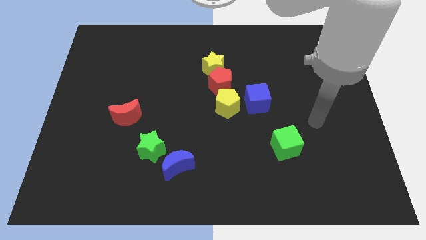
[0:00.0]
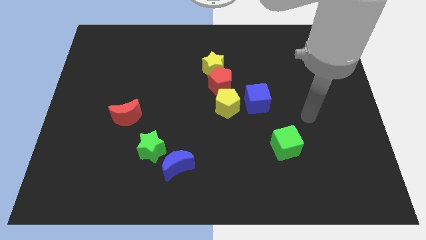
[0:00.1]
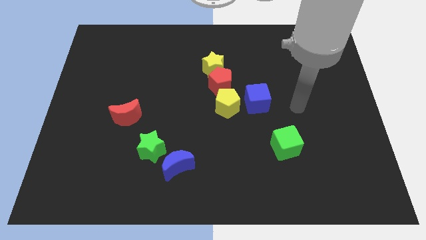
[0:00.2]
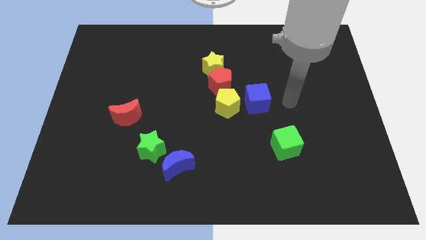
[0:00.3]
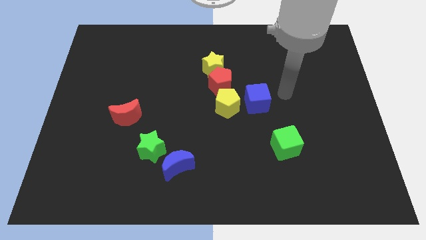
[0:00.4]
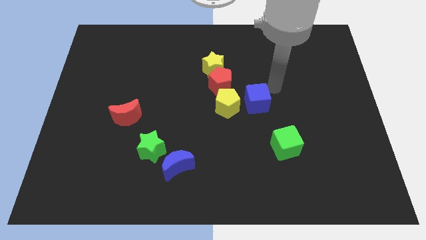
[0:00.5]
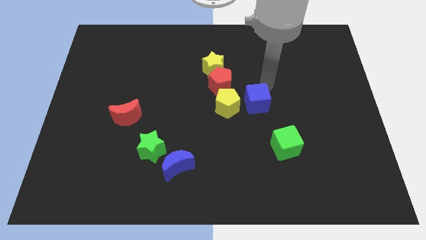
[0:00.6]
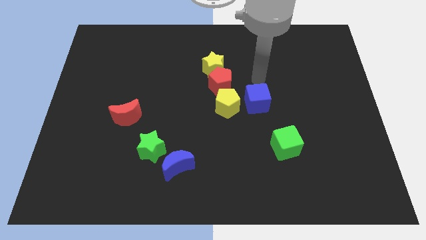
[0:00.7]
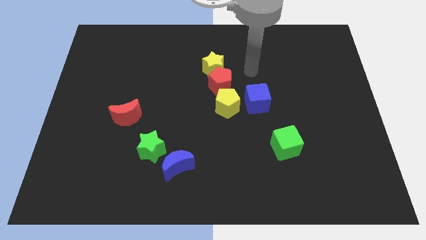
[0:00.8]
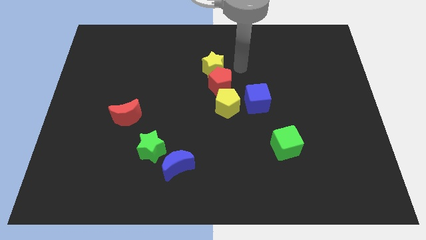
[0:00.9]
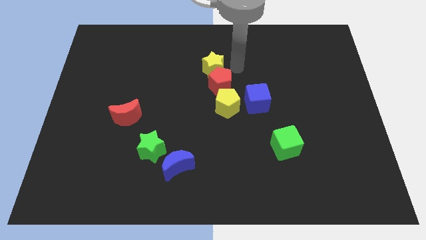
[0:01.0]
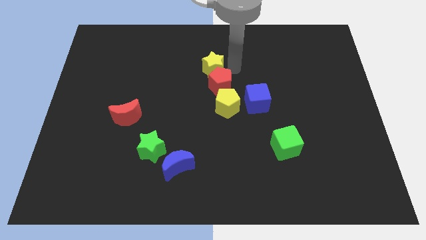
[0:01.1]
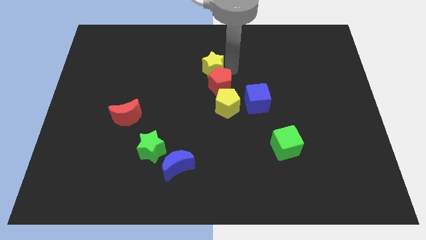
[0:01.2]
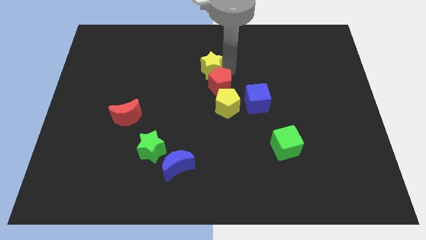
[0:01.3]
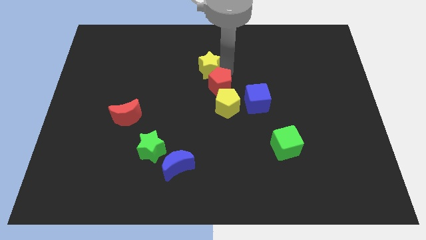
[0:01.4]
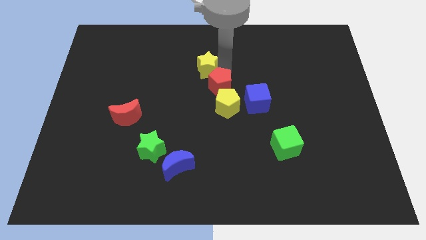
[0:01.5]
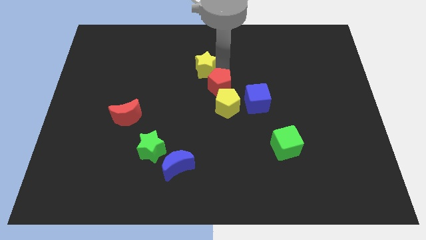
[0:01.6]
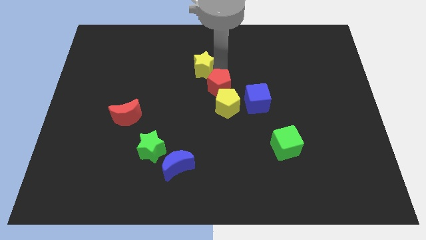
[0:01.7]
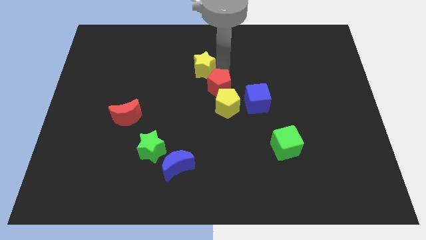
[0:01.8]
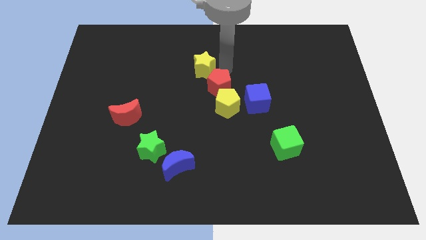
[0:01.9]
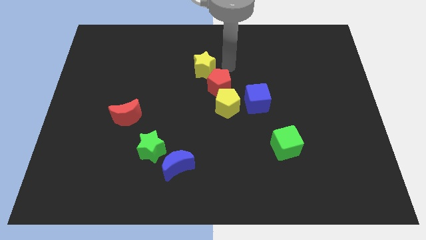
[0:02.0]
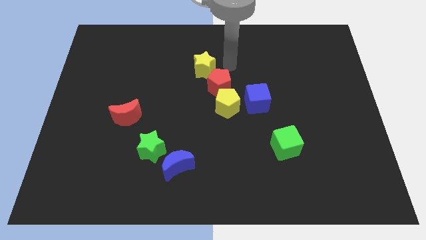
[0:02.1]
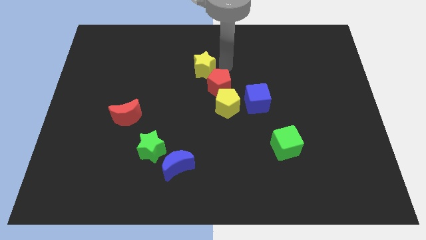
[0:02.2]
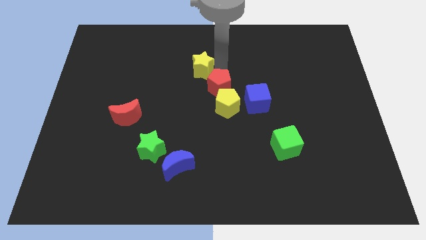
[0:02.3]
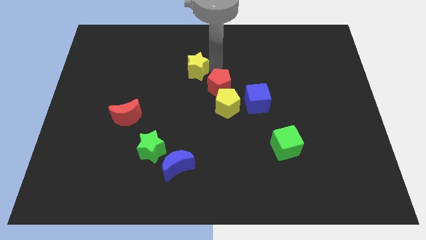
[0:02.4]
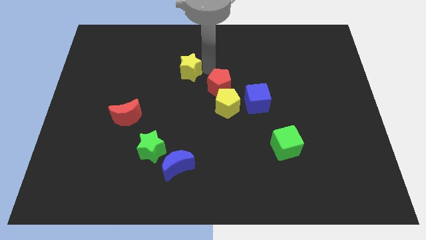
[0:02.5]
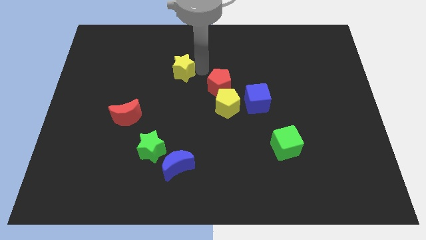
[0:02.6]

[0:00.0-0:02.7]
push the yellow star to the left somewhat

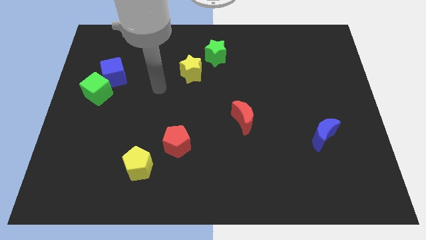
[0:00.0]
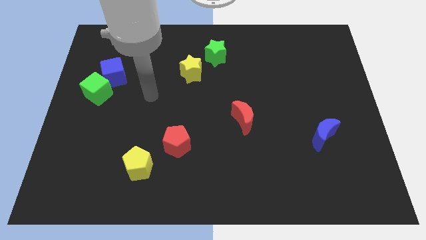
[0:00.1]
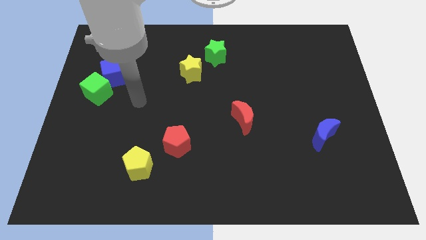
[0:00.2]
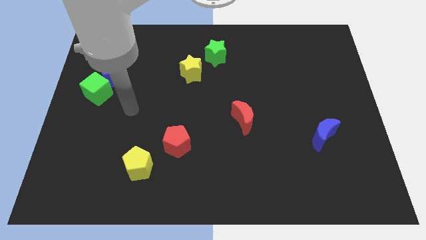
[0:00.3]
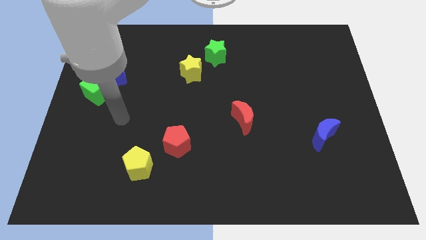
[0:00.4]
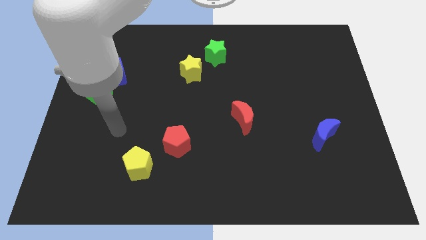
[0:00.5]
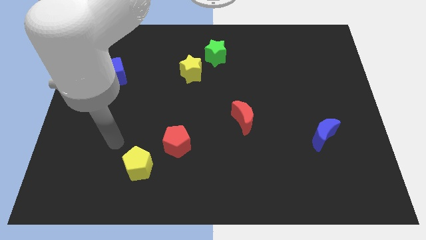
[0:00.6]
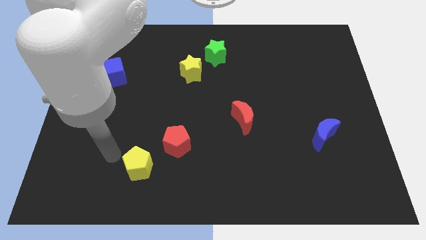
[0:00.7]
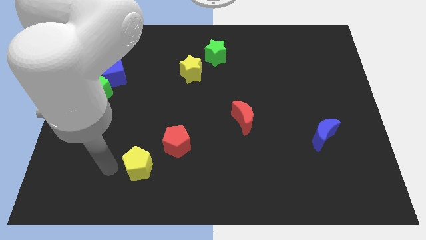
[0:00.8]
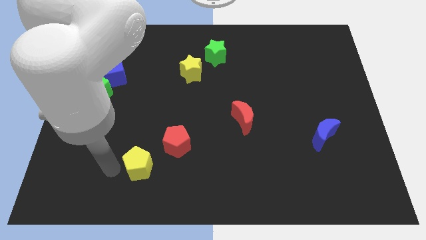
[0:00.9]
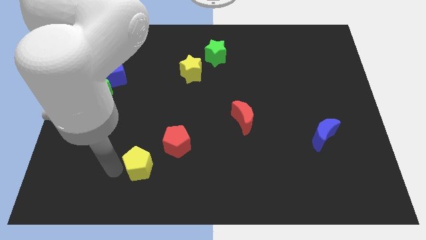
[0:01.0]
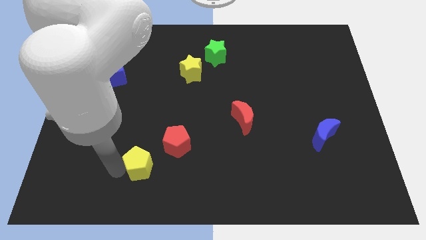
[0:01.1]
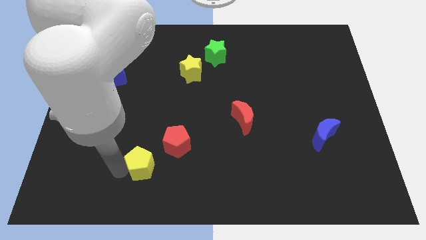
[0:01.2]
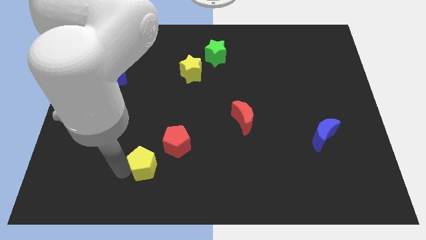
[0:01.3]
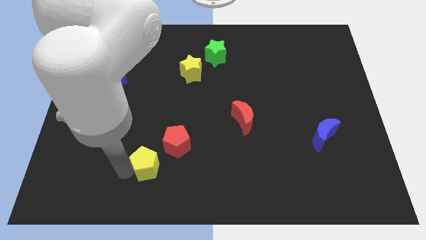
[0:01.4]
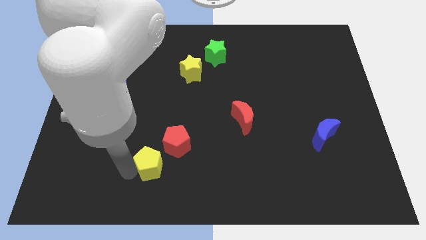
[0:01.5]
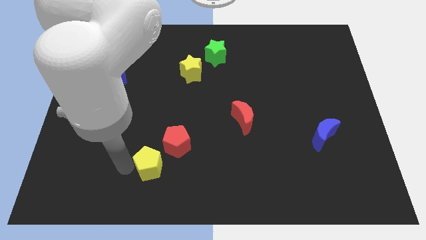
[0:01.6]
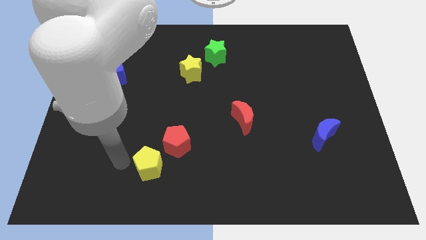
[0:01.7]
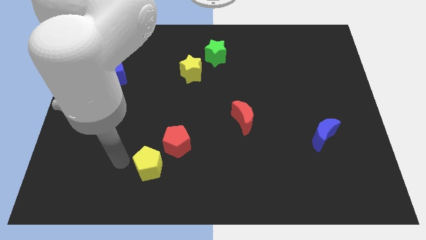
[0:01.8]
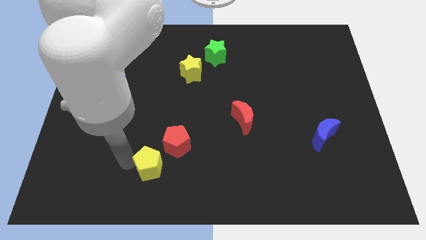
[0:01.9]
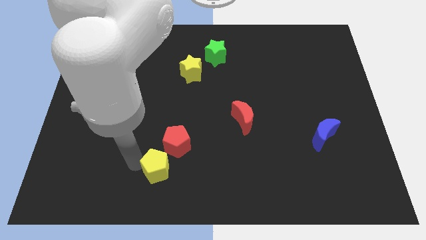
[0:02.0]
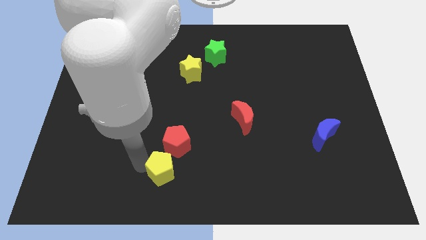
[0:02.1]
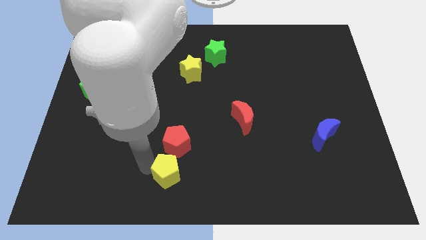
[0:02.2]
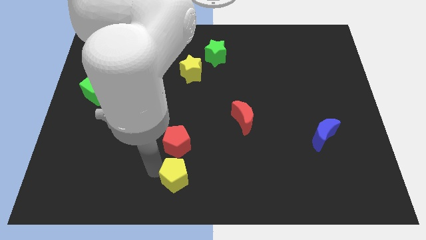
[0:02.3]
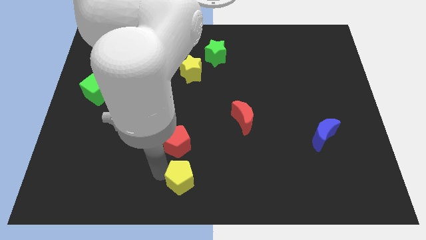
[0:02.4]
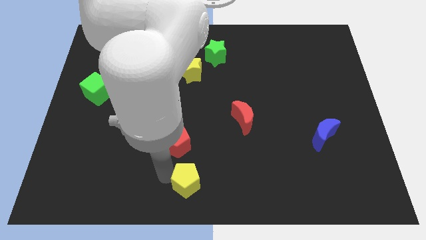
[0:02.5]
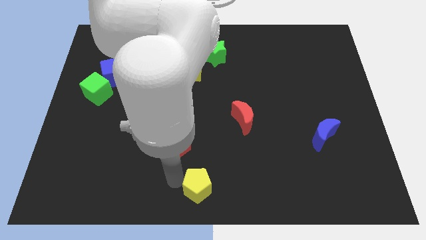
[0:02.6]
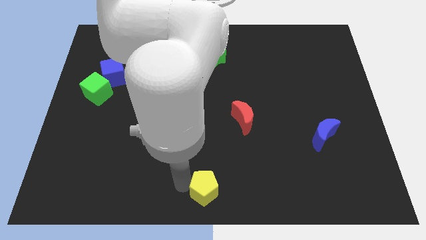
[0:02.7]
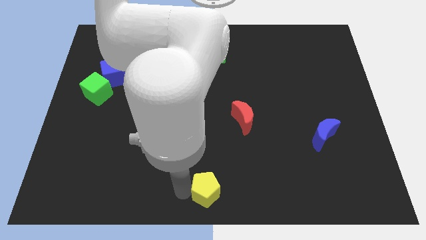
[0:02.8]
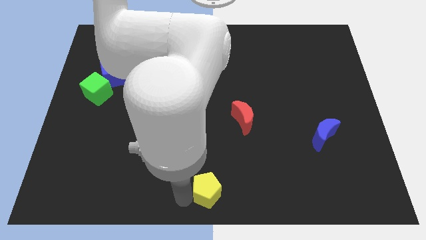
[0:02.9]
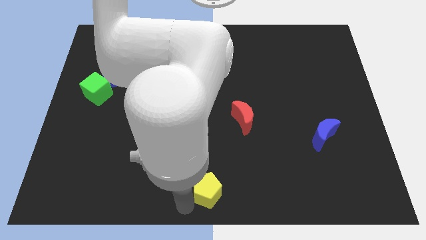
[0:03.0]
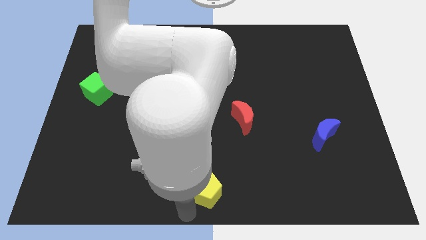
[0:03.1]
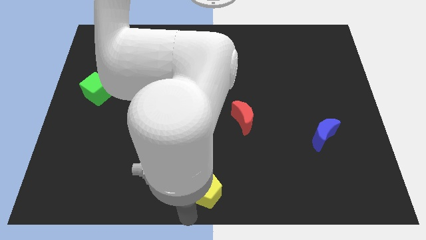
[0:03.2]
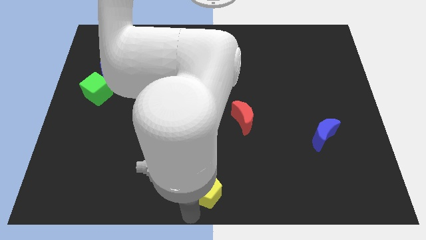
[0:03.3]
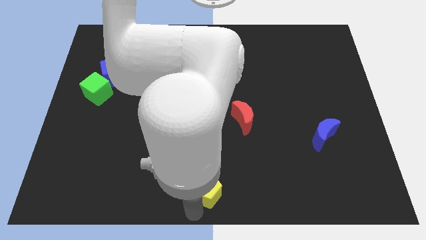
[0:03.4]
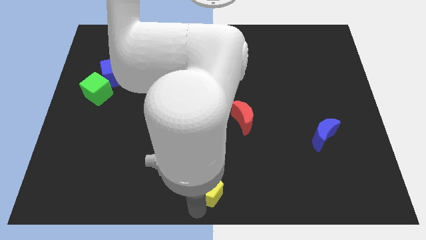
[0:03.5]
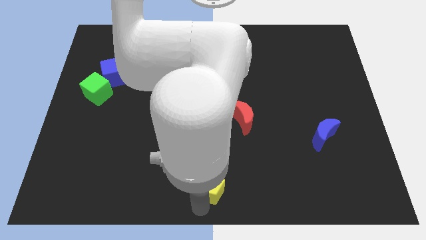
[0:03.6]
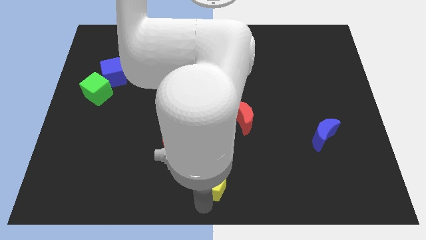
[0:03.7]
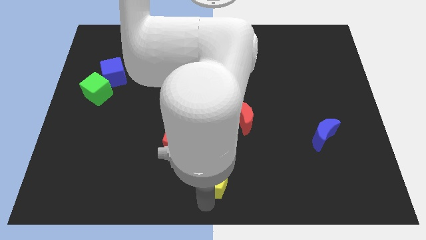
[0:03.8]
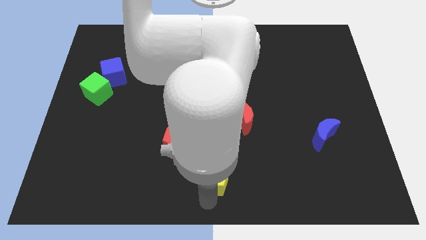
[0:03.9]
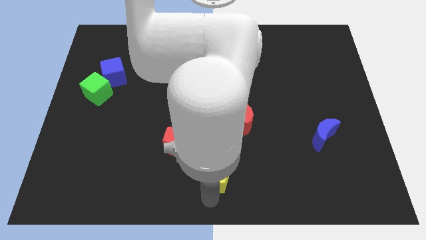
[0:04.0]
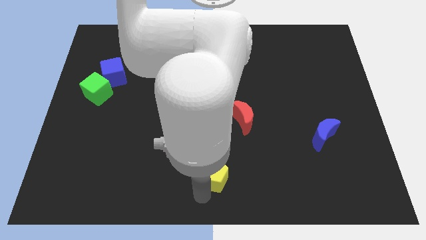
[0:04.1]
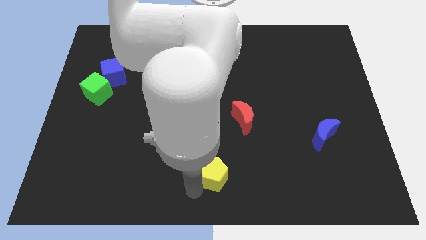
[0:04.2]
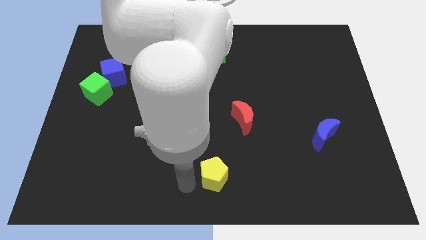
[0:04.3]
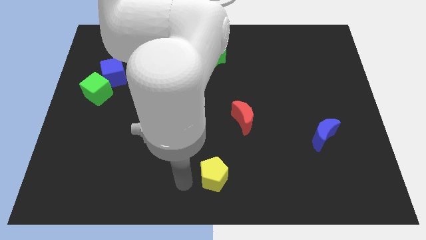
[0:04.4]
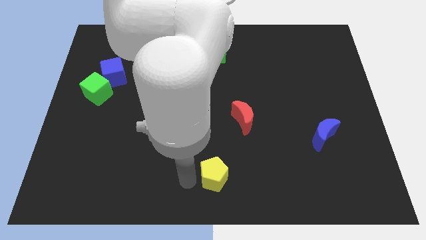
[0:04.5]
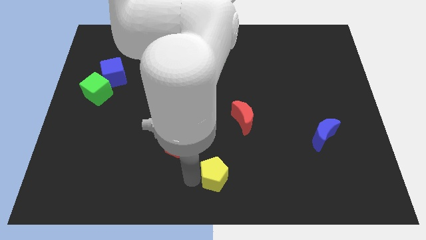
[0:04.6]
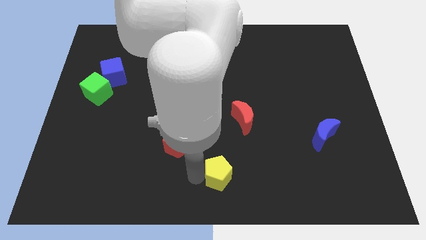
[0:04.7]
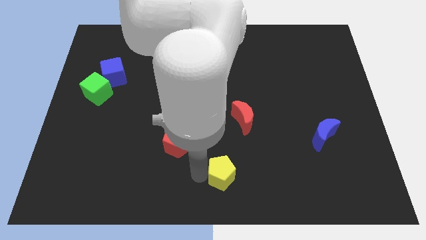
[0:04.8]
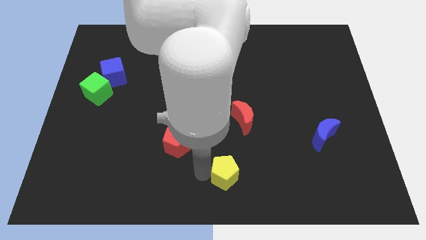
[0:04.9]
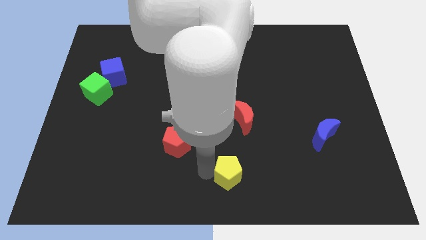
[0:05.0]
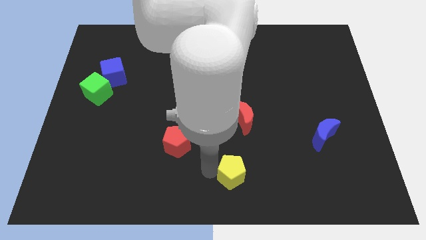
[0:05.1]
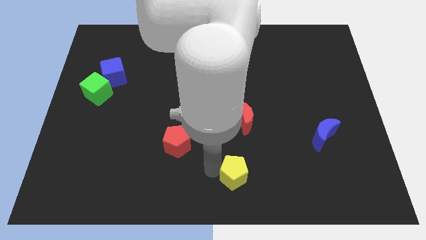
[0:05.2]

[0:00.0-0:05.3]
move the yellow pentagon right

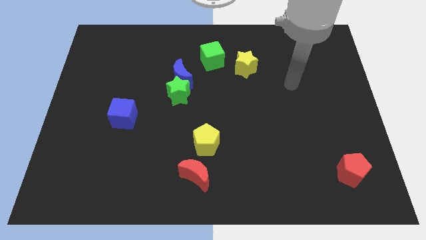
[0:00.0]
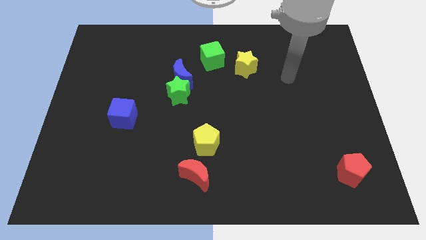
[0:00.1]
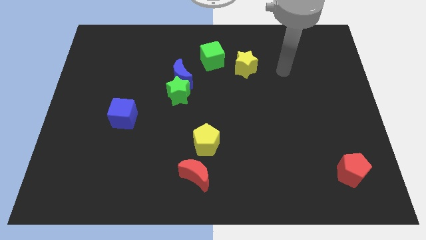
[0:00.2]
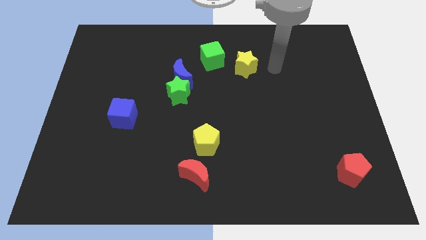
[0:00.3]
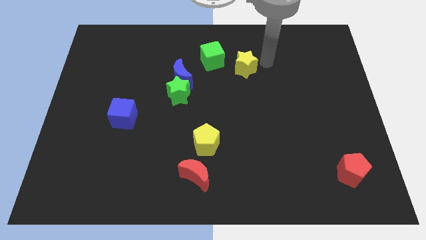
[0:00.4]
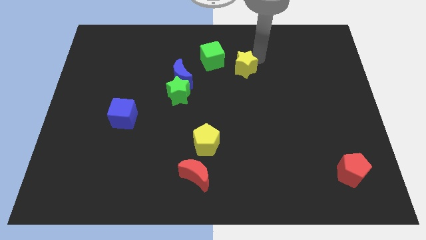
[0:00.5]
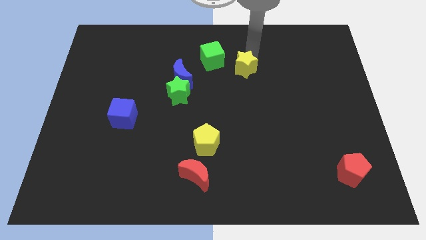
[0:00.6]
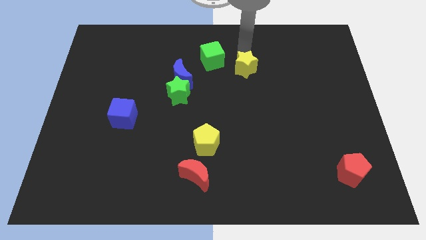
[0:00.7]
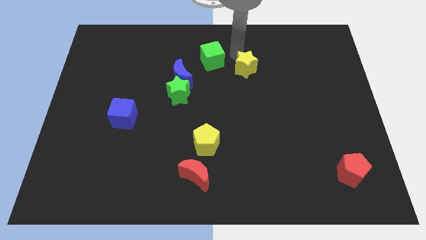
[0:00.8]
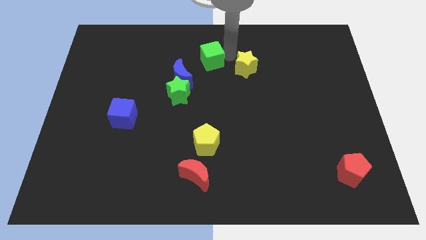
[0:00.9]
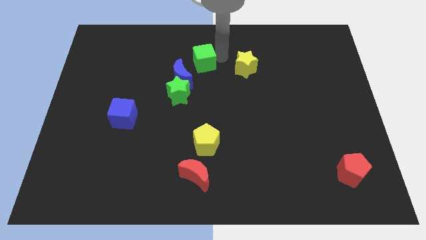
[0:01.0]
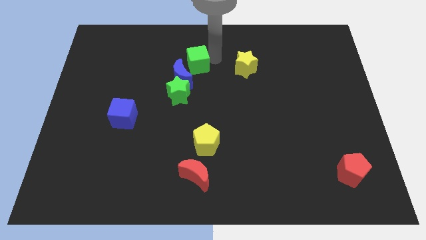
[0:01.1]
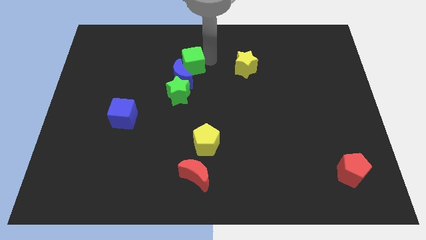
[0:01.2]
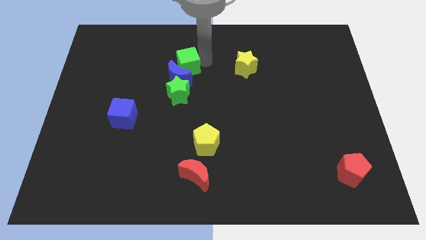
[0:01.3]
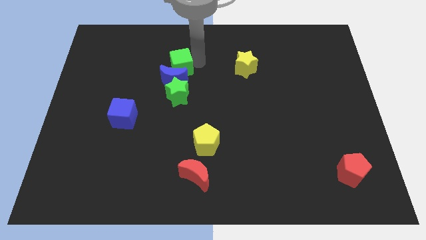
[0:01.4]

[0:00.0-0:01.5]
push the green cube downwards and to the left a little bit
